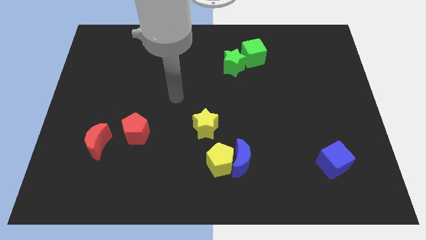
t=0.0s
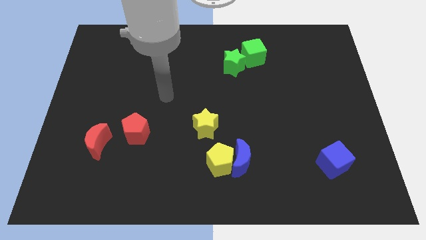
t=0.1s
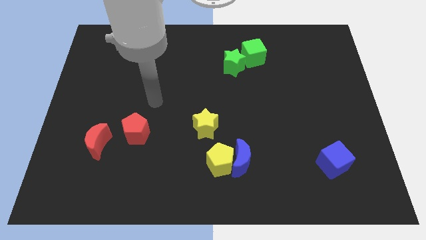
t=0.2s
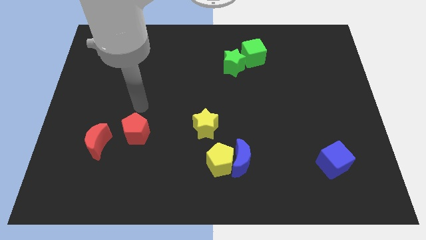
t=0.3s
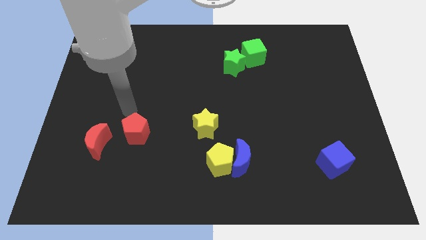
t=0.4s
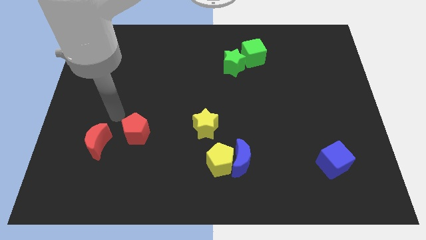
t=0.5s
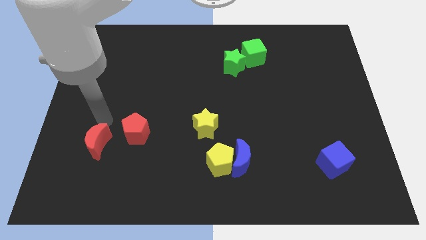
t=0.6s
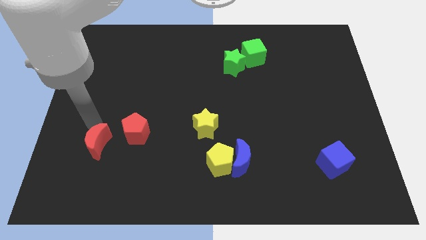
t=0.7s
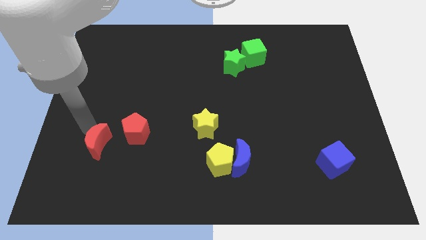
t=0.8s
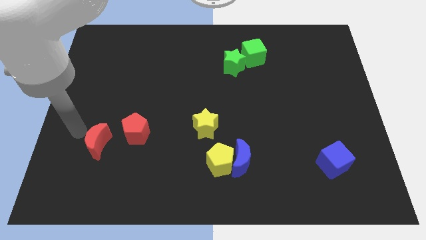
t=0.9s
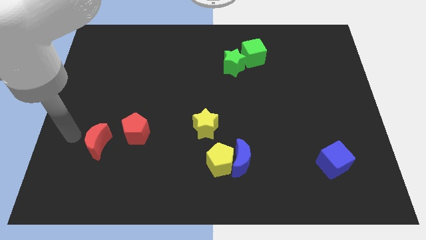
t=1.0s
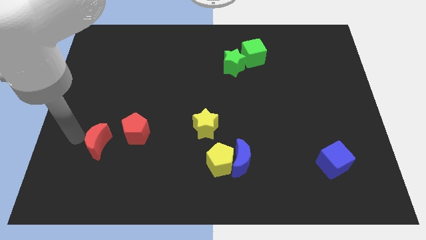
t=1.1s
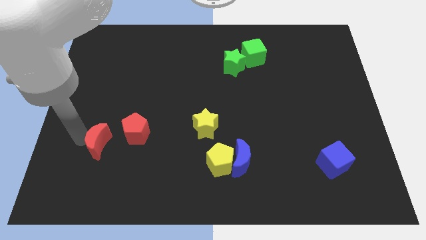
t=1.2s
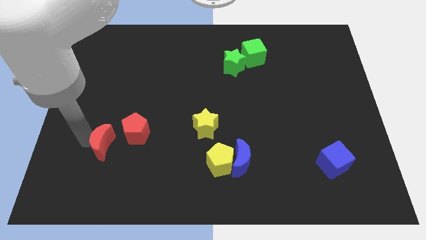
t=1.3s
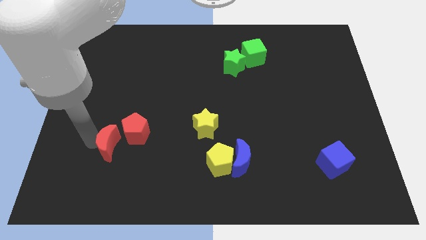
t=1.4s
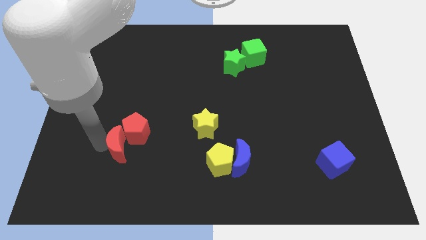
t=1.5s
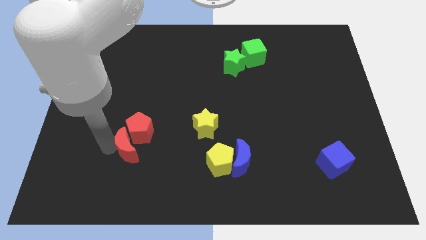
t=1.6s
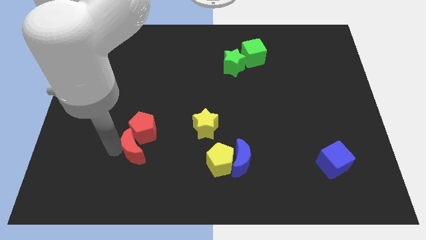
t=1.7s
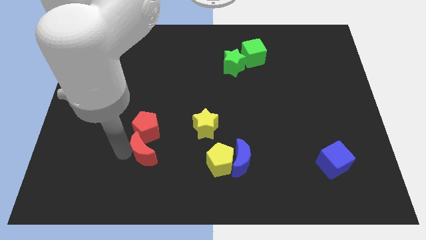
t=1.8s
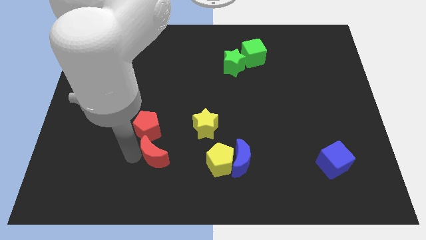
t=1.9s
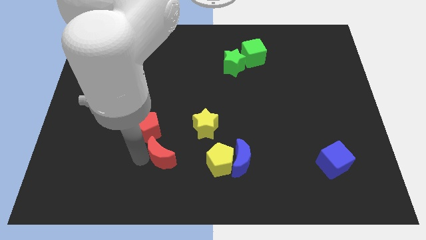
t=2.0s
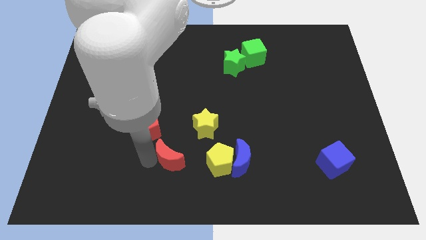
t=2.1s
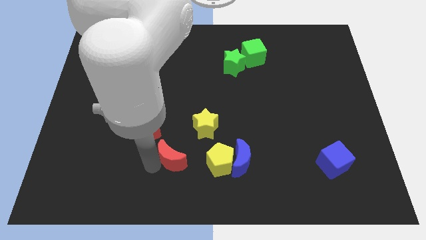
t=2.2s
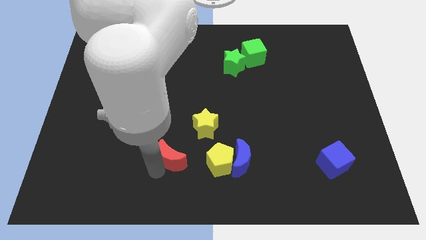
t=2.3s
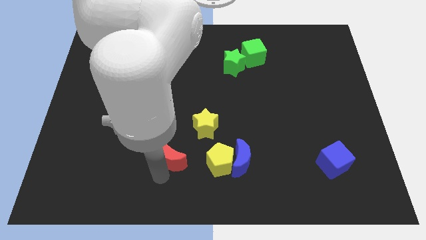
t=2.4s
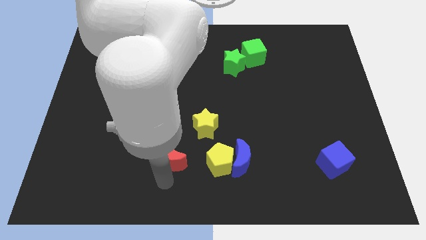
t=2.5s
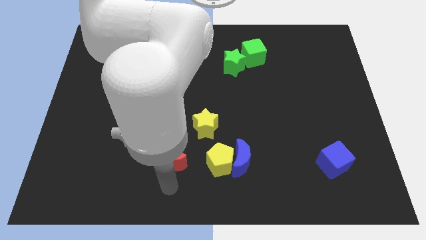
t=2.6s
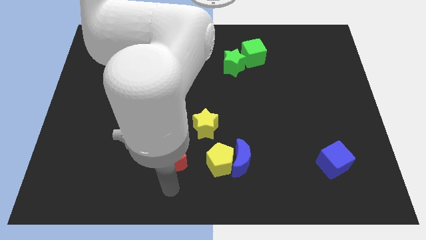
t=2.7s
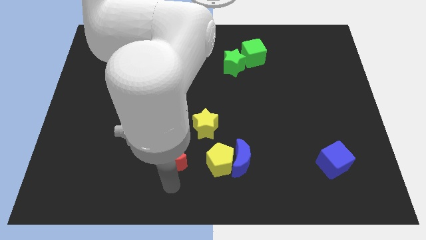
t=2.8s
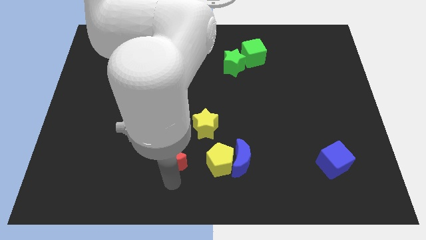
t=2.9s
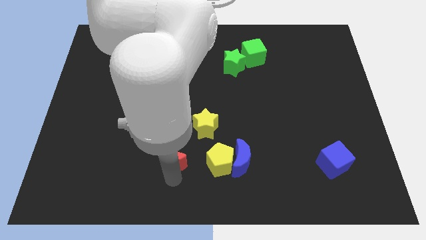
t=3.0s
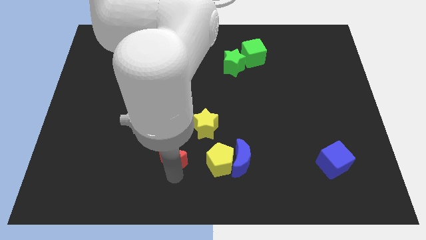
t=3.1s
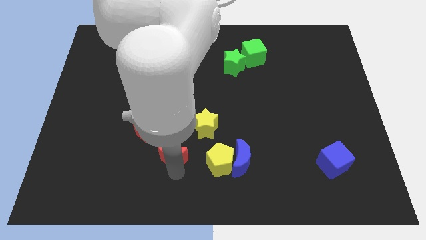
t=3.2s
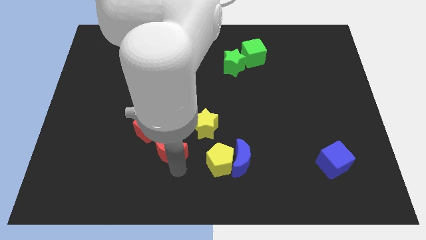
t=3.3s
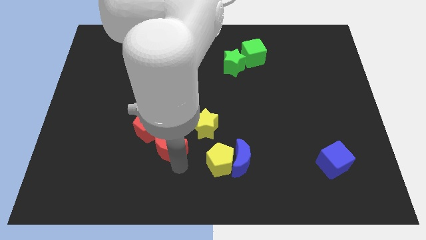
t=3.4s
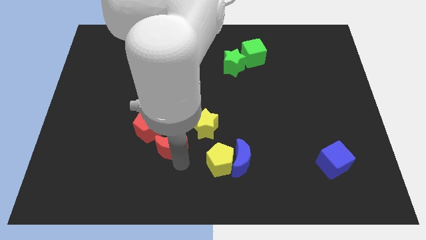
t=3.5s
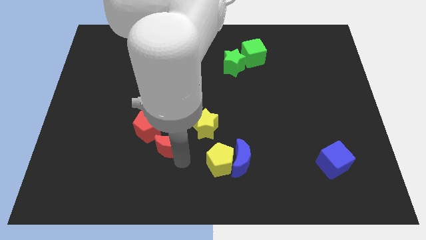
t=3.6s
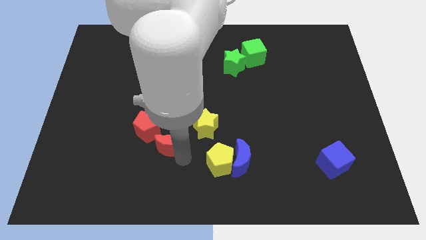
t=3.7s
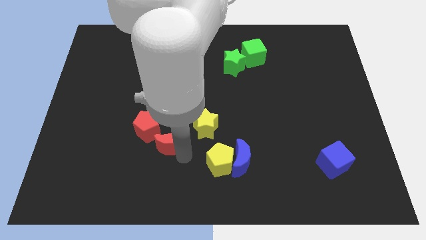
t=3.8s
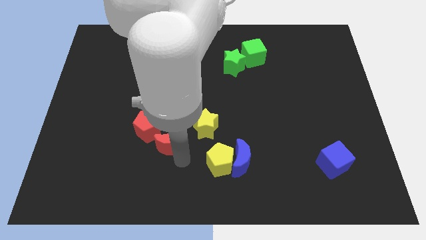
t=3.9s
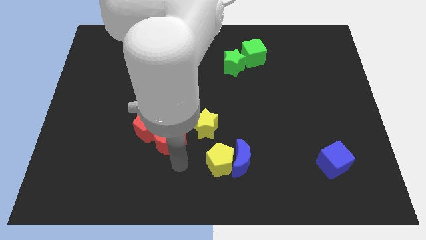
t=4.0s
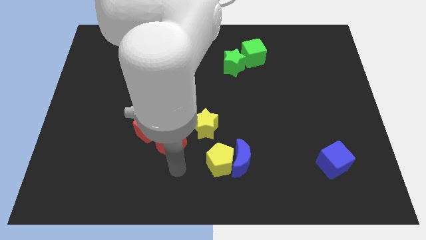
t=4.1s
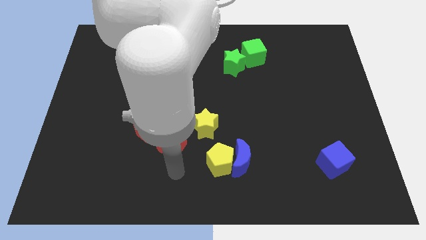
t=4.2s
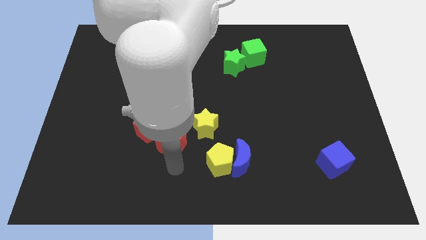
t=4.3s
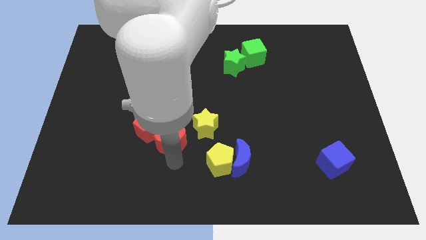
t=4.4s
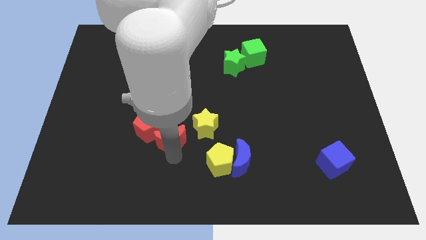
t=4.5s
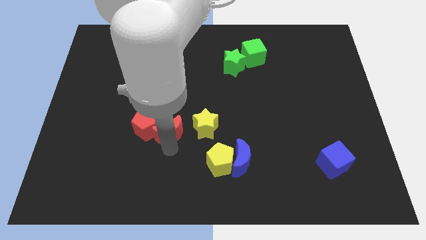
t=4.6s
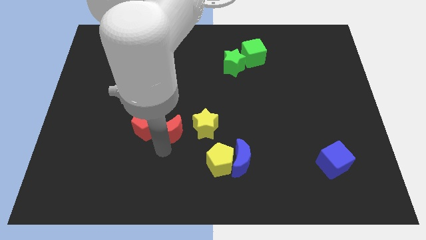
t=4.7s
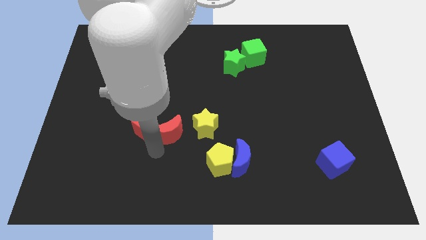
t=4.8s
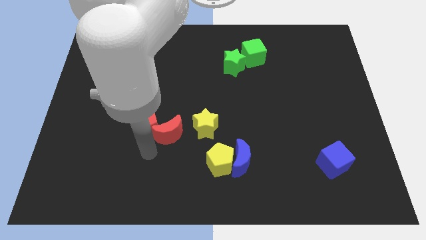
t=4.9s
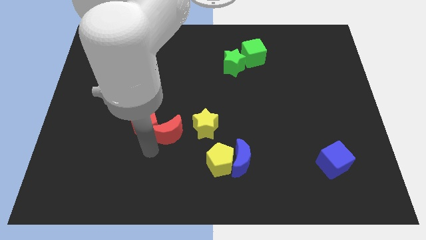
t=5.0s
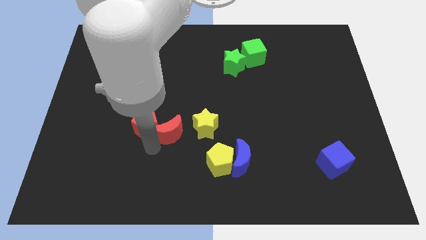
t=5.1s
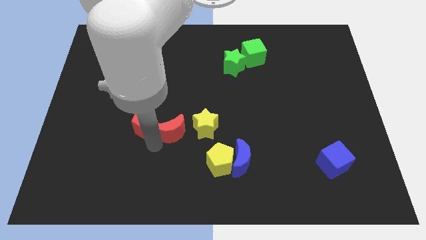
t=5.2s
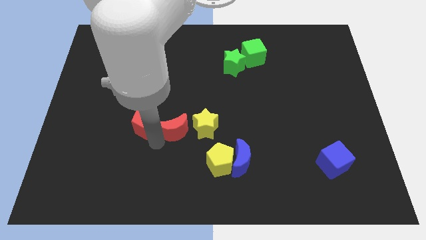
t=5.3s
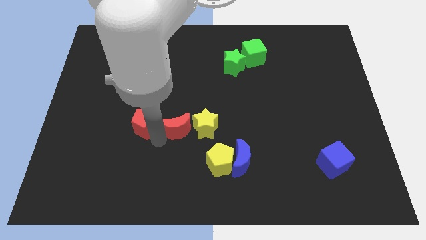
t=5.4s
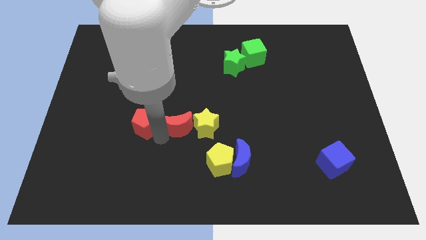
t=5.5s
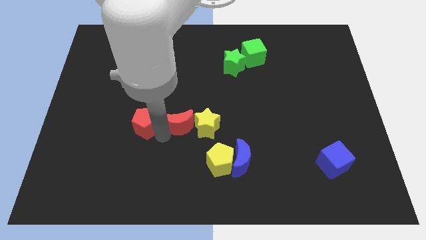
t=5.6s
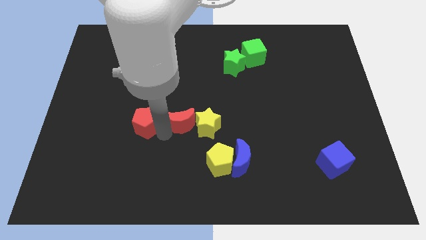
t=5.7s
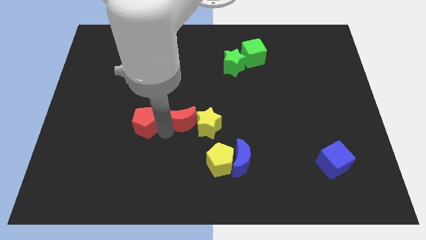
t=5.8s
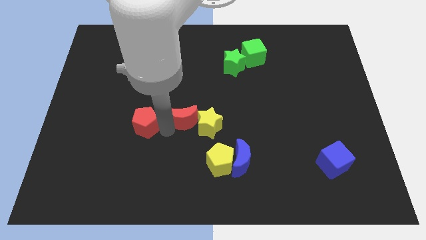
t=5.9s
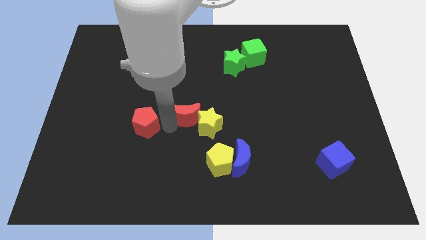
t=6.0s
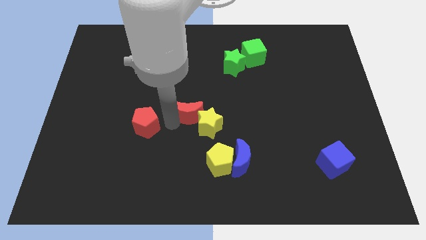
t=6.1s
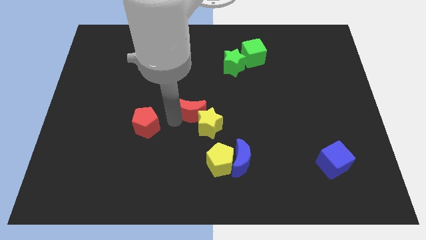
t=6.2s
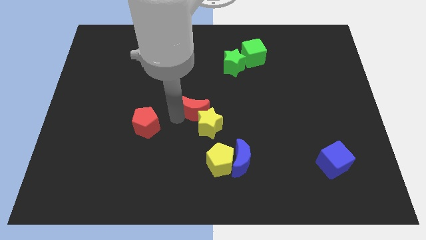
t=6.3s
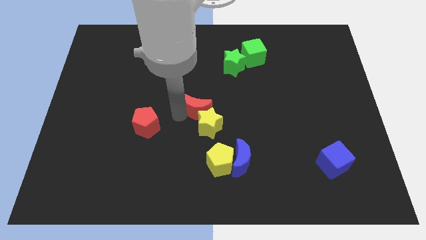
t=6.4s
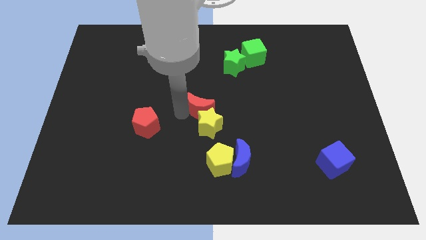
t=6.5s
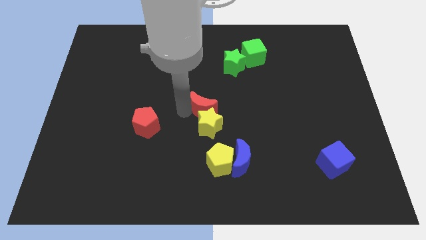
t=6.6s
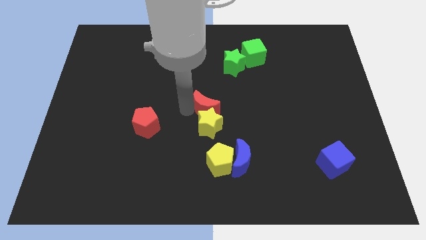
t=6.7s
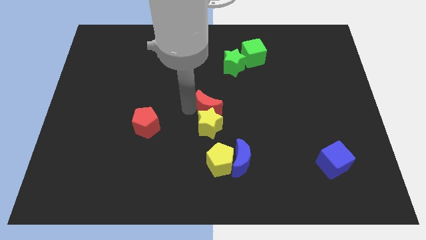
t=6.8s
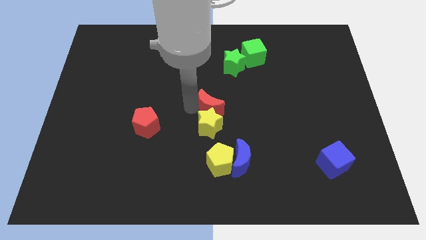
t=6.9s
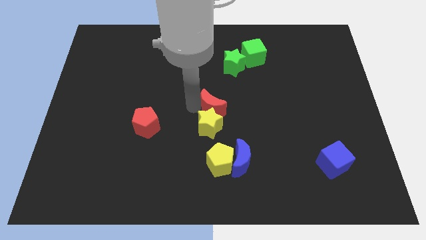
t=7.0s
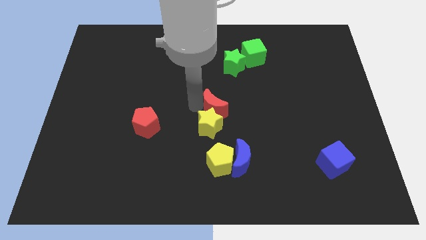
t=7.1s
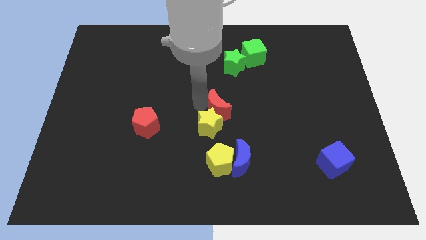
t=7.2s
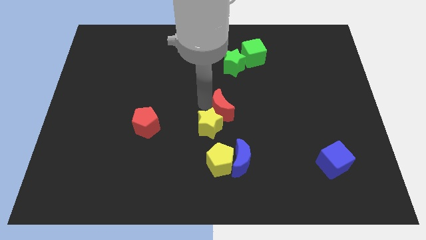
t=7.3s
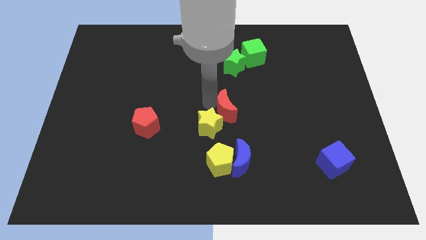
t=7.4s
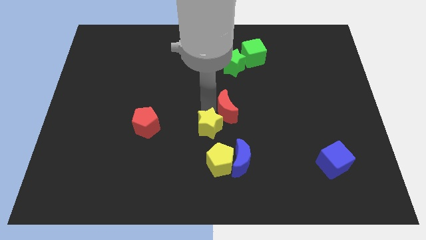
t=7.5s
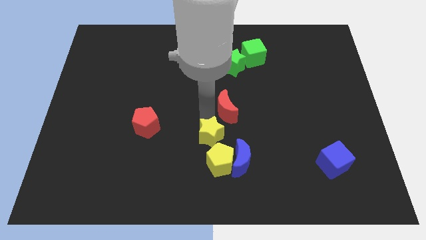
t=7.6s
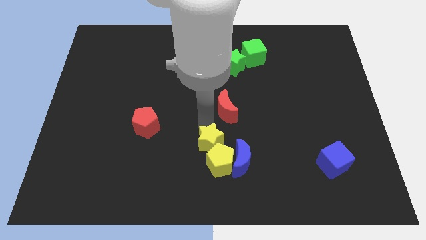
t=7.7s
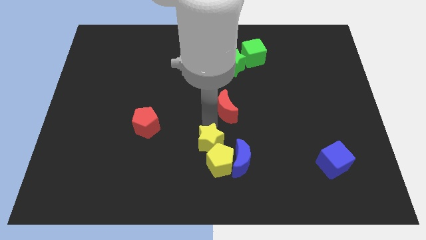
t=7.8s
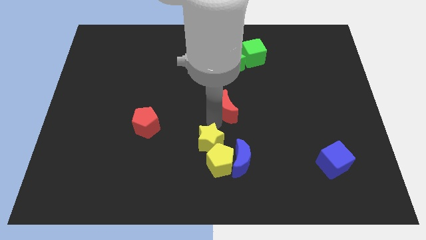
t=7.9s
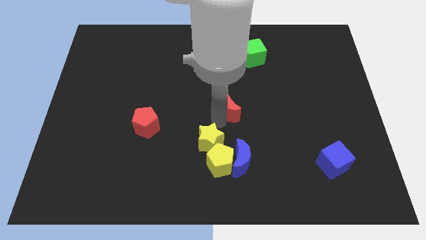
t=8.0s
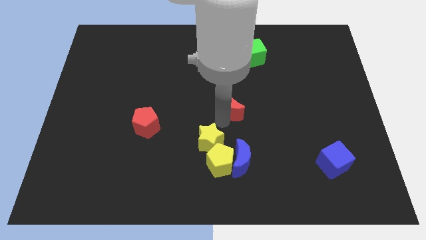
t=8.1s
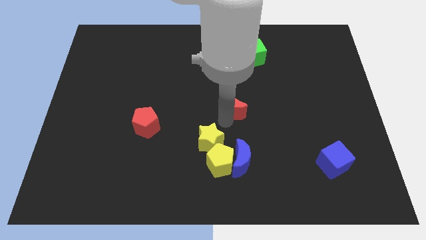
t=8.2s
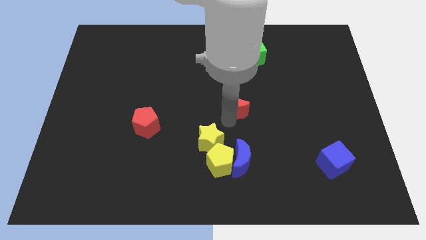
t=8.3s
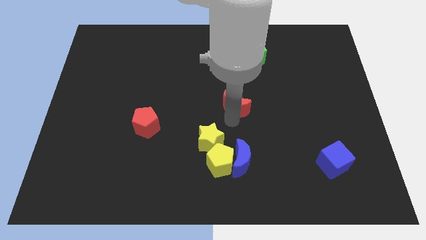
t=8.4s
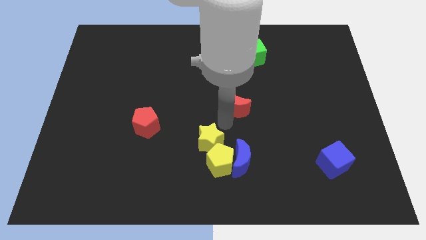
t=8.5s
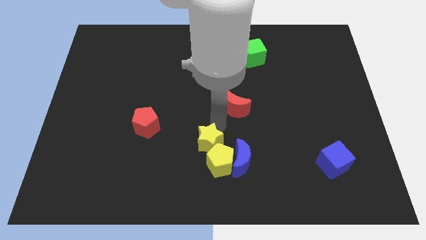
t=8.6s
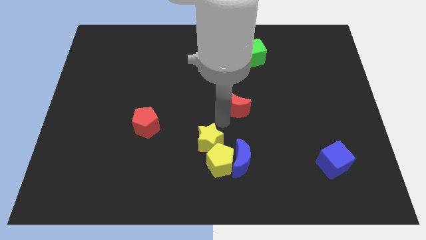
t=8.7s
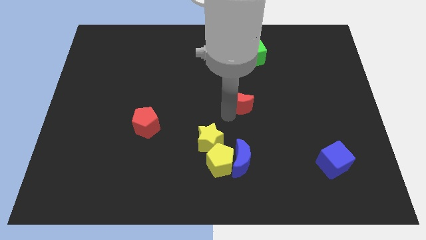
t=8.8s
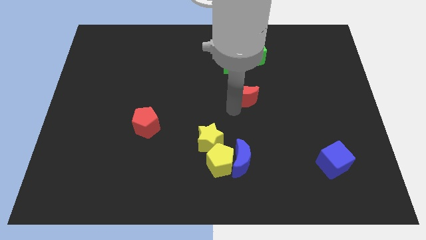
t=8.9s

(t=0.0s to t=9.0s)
push the red moon to the bottom of the green cube
